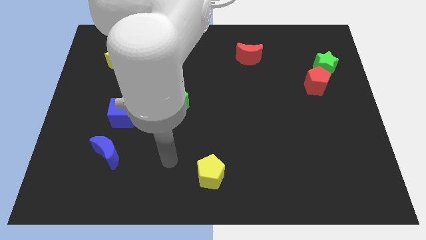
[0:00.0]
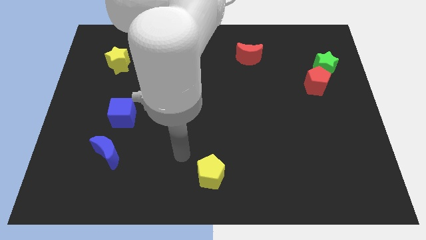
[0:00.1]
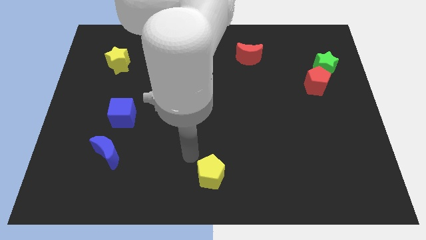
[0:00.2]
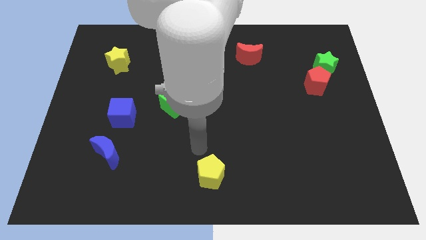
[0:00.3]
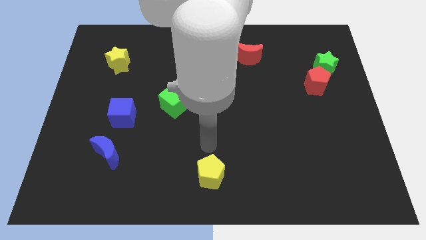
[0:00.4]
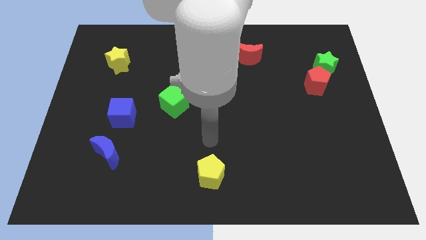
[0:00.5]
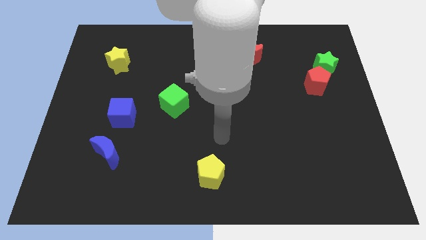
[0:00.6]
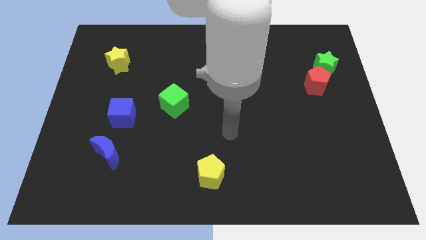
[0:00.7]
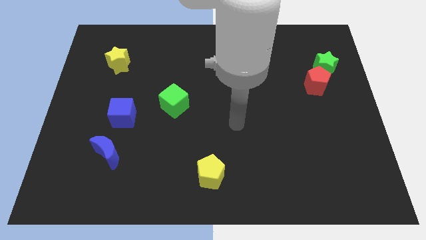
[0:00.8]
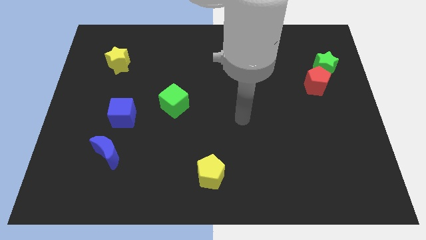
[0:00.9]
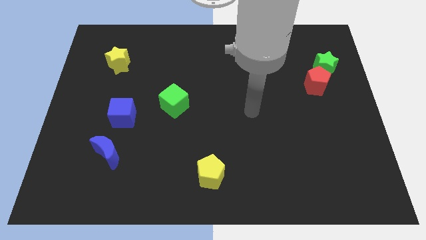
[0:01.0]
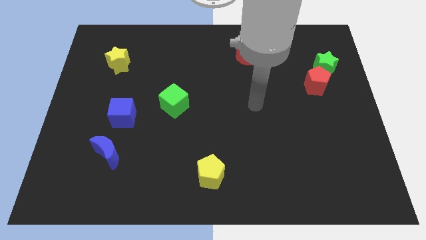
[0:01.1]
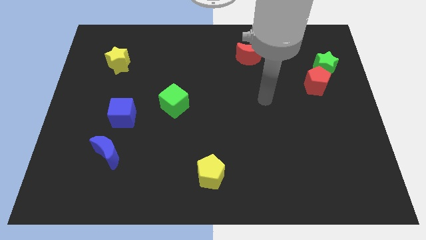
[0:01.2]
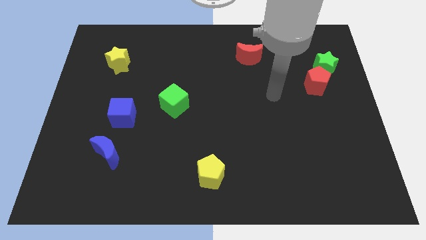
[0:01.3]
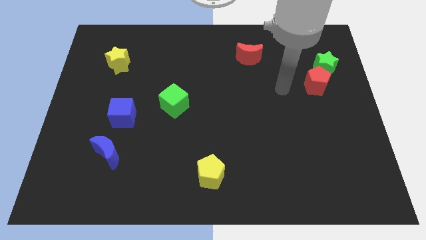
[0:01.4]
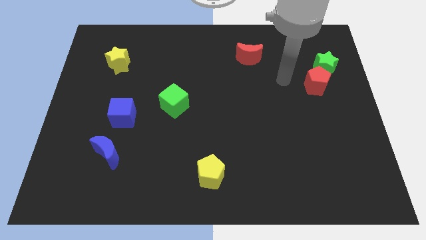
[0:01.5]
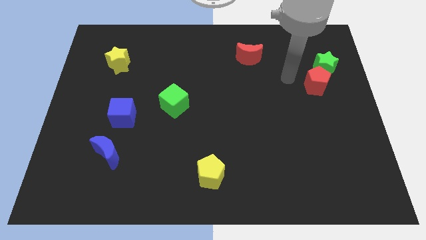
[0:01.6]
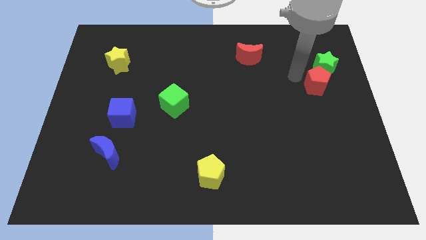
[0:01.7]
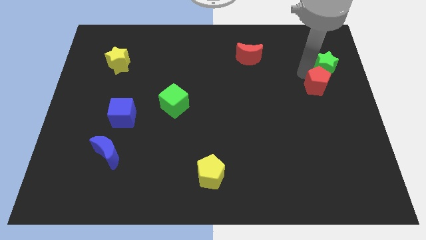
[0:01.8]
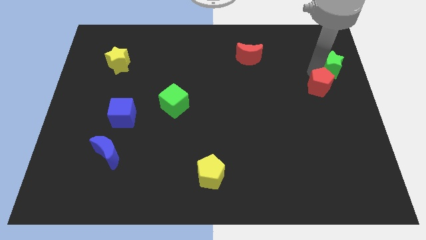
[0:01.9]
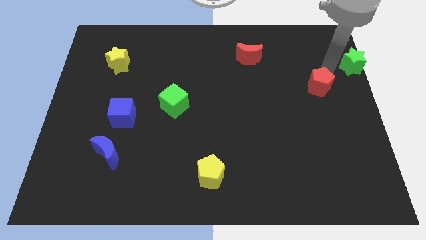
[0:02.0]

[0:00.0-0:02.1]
separate the red pentagon from the green star

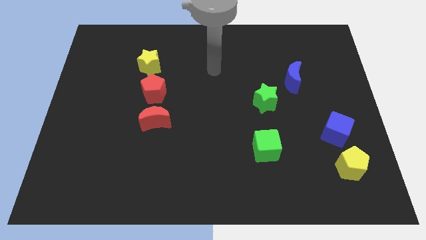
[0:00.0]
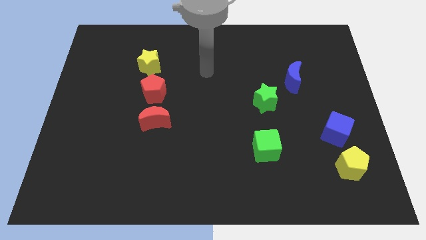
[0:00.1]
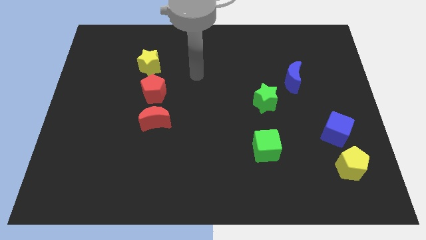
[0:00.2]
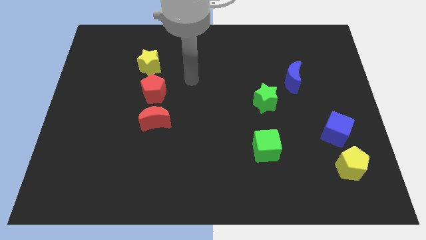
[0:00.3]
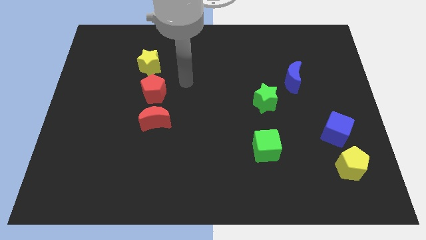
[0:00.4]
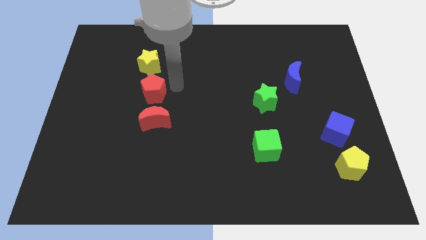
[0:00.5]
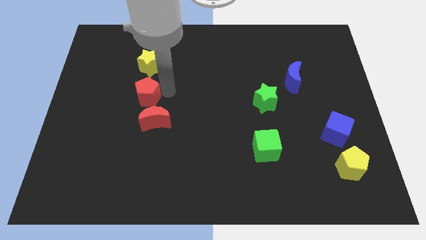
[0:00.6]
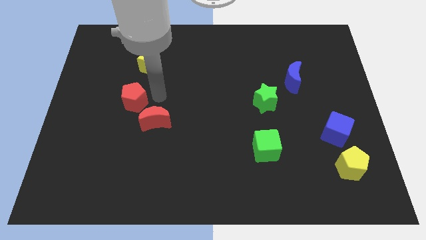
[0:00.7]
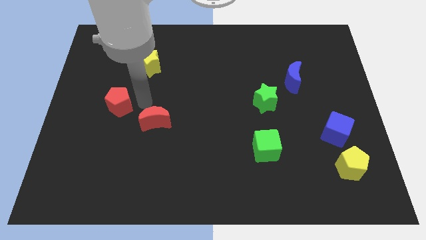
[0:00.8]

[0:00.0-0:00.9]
separate the red moon from the red pentagon

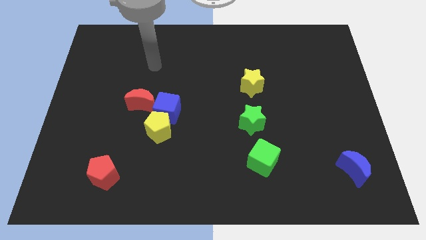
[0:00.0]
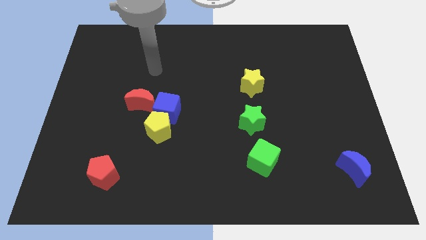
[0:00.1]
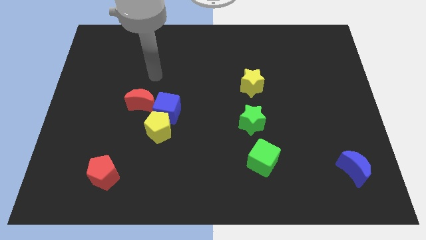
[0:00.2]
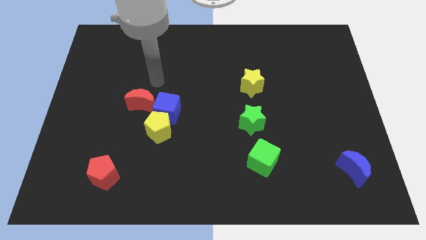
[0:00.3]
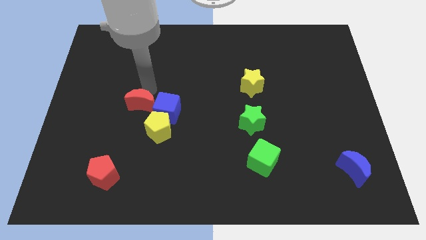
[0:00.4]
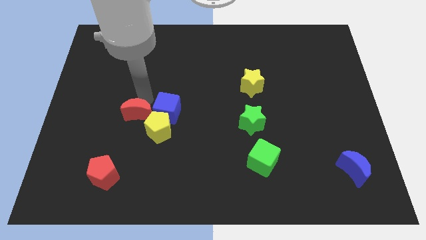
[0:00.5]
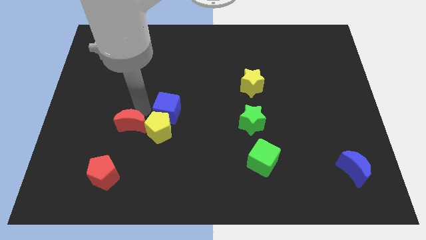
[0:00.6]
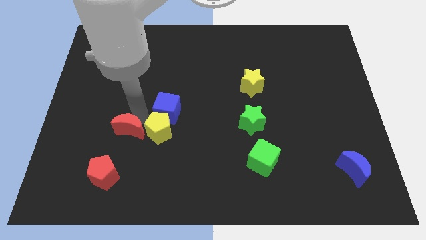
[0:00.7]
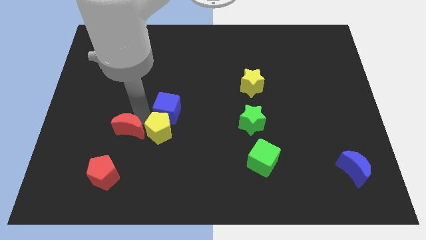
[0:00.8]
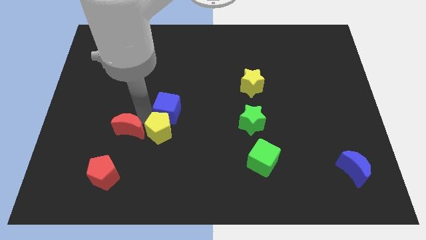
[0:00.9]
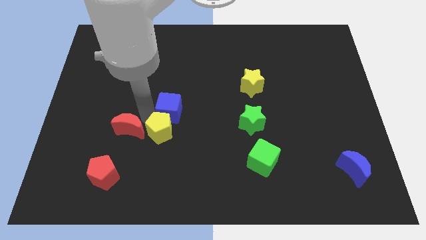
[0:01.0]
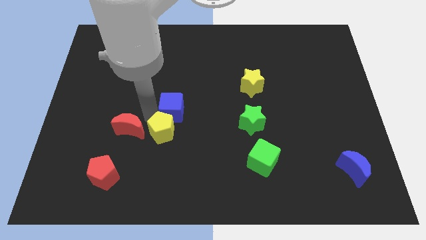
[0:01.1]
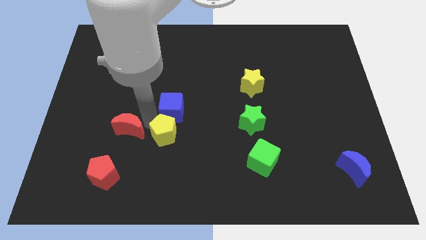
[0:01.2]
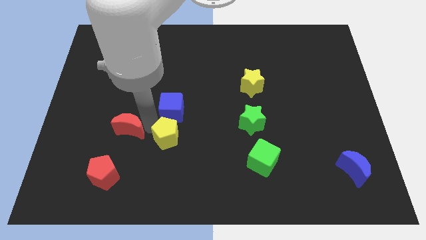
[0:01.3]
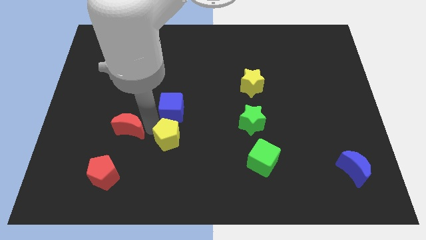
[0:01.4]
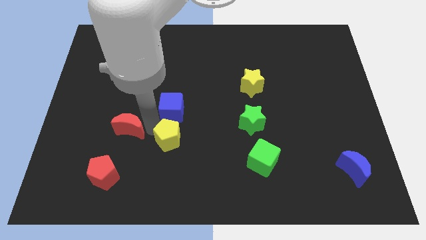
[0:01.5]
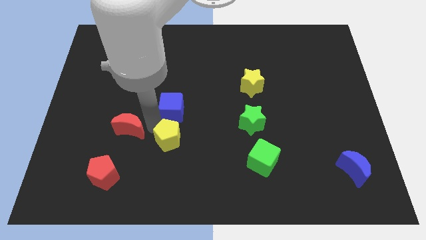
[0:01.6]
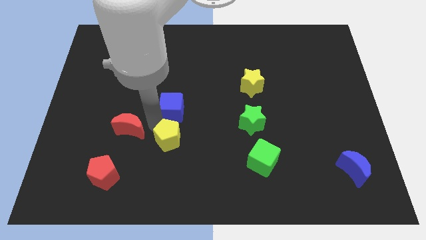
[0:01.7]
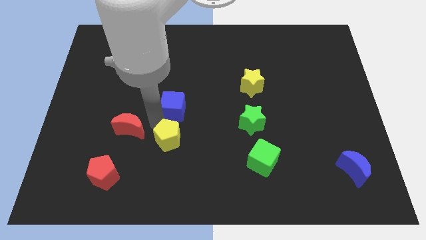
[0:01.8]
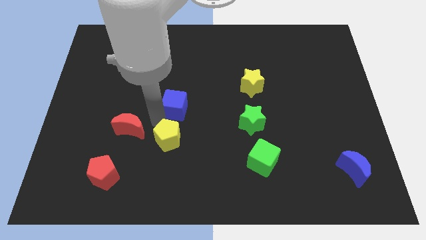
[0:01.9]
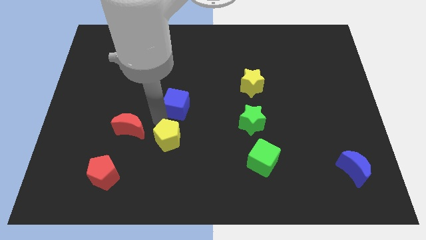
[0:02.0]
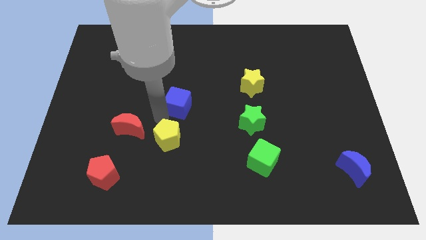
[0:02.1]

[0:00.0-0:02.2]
separate the blue cube from the yellow pentagon and red moon

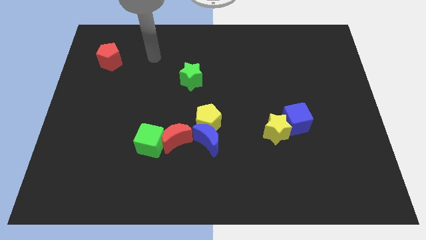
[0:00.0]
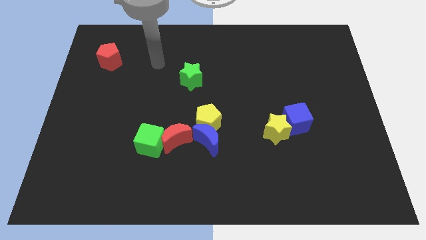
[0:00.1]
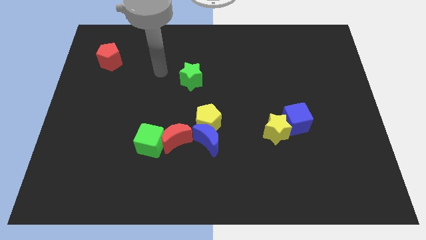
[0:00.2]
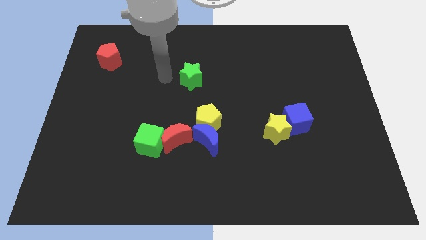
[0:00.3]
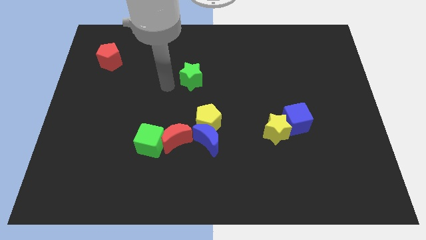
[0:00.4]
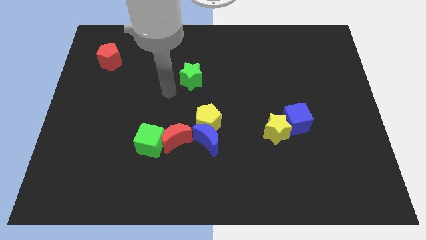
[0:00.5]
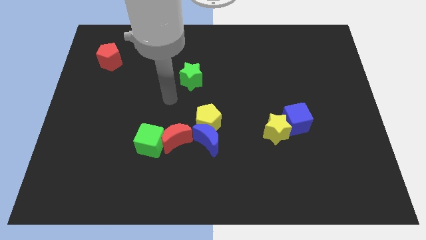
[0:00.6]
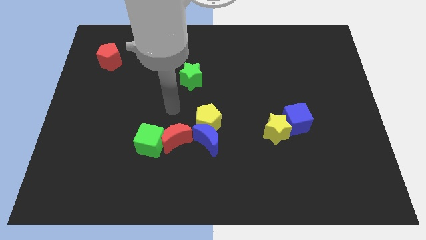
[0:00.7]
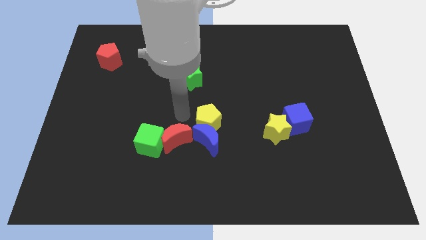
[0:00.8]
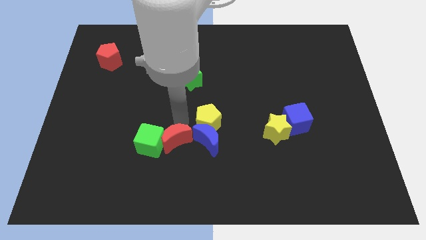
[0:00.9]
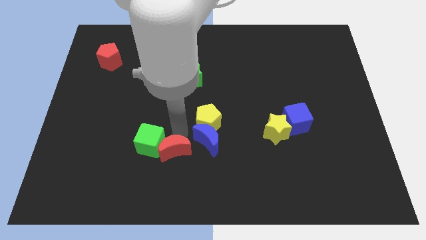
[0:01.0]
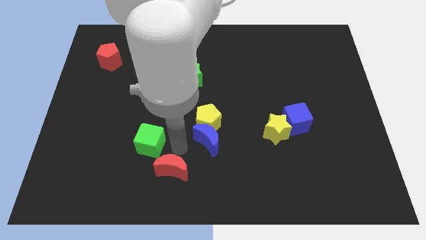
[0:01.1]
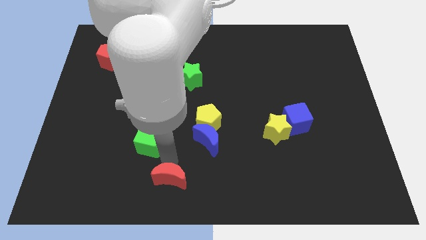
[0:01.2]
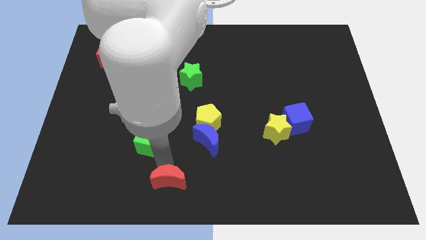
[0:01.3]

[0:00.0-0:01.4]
separate the green cube from the red moon

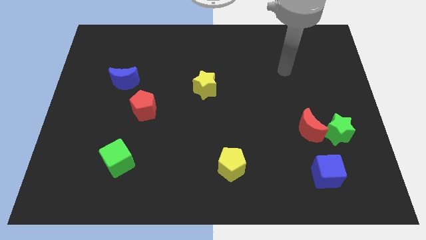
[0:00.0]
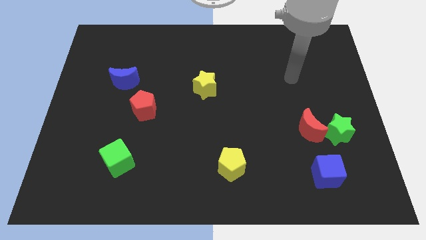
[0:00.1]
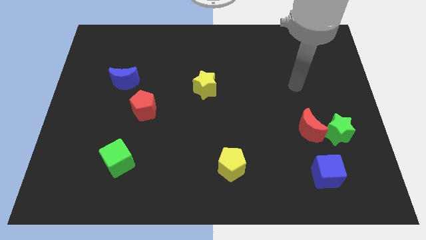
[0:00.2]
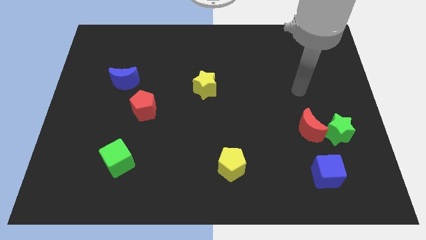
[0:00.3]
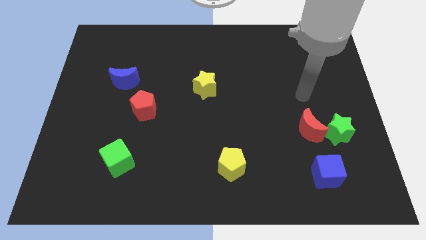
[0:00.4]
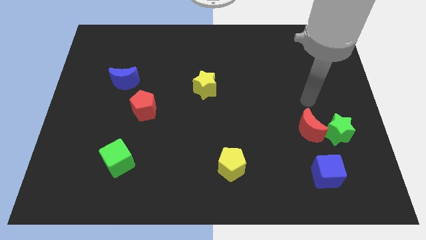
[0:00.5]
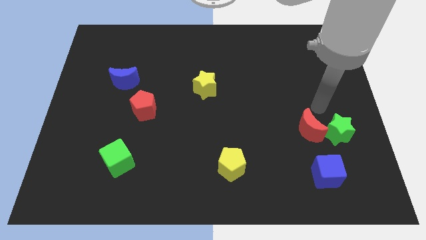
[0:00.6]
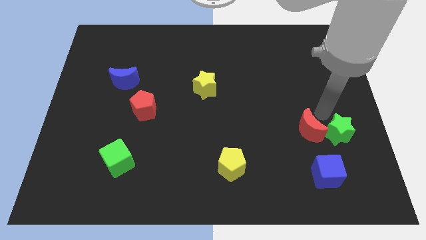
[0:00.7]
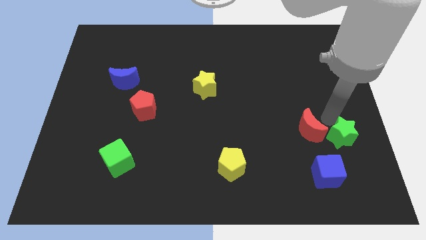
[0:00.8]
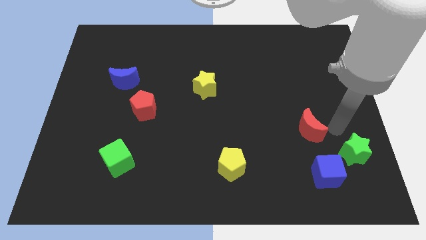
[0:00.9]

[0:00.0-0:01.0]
move the red moon away from the green star

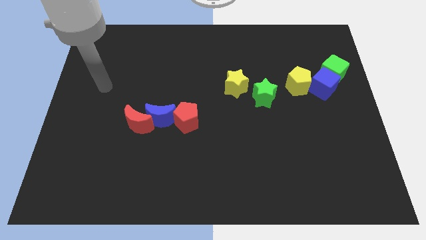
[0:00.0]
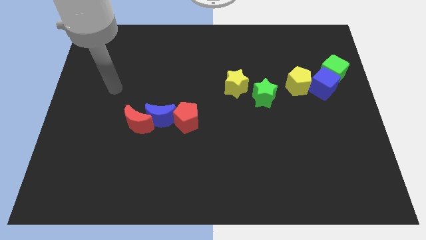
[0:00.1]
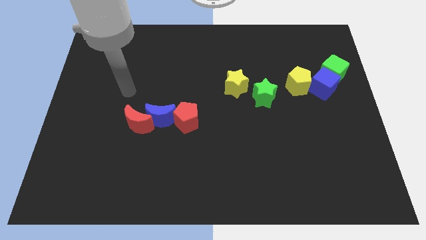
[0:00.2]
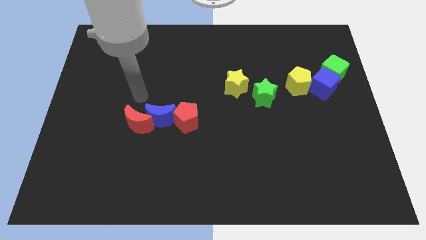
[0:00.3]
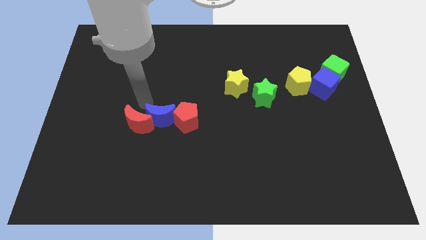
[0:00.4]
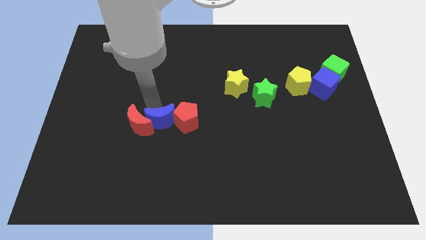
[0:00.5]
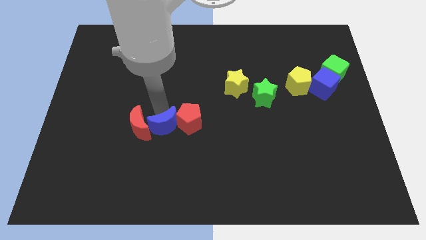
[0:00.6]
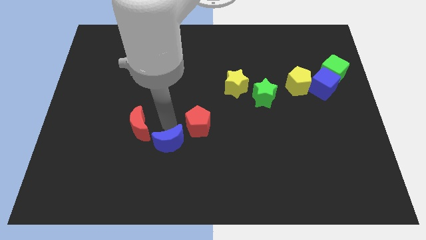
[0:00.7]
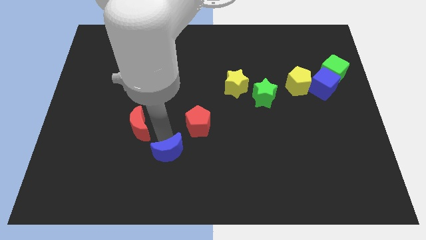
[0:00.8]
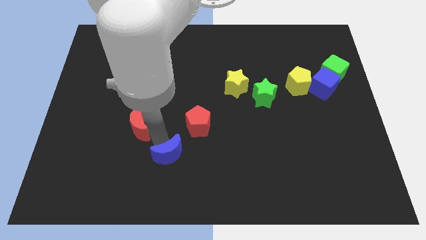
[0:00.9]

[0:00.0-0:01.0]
pull the red moon apart from the blue moon

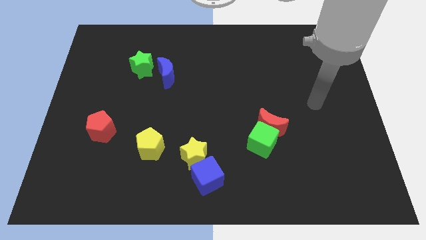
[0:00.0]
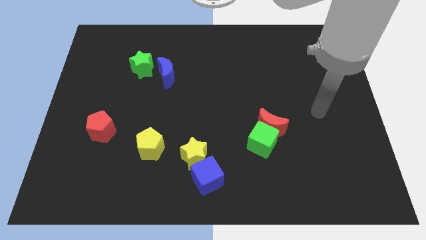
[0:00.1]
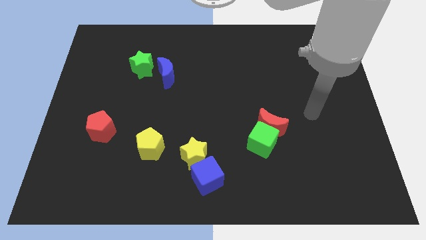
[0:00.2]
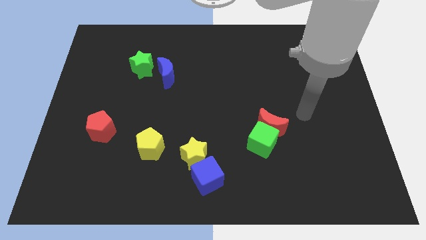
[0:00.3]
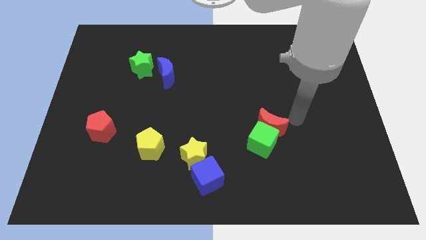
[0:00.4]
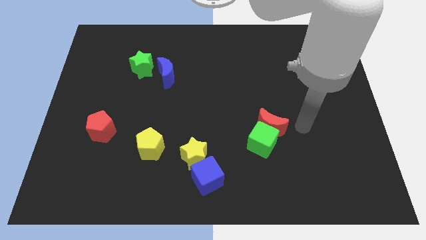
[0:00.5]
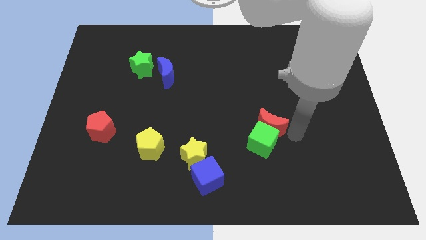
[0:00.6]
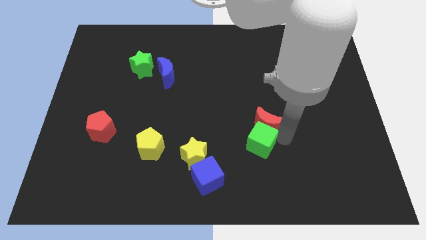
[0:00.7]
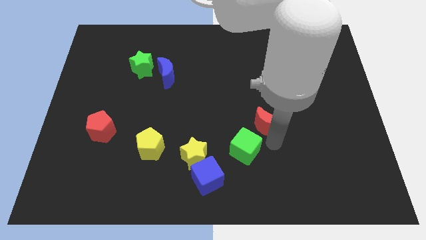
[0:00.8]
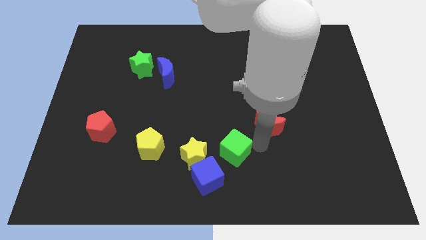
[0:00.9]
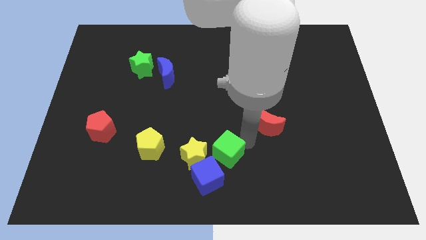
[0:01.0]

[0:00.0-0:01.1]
pull the red moon apart from the green cube
